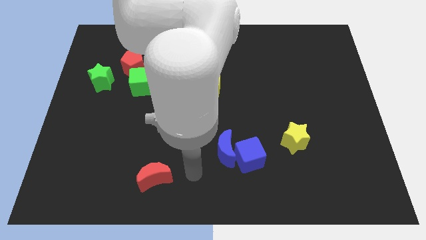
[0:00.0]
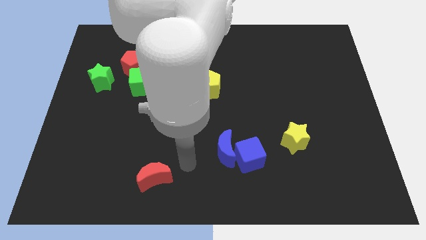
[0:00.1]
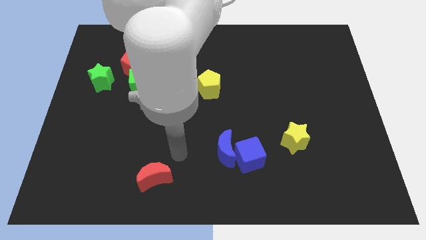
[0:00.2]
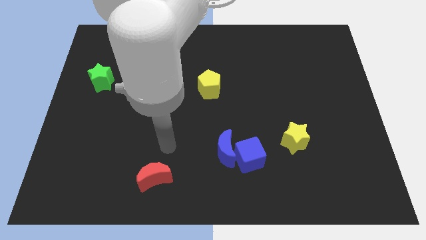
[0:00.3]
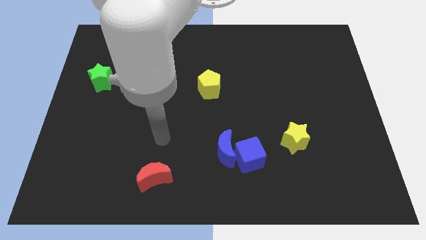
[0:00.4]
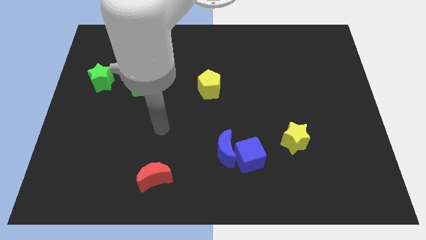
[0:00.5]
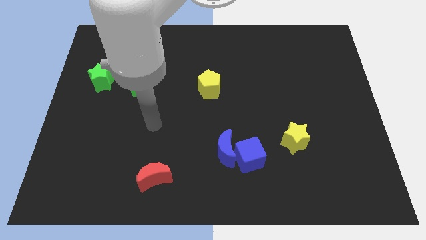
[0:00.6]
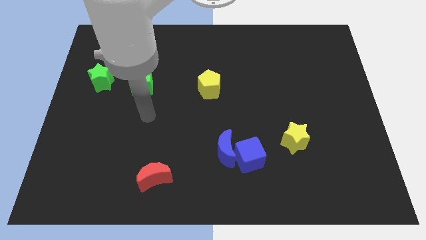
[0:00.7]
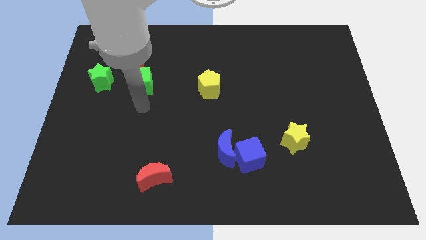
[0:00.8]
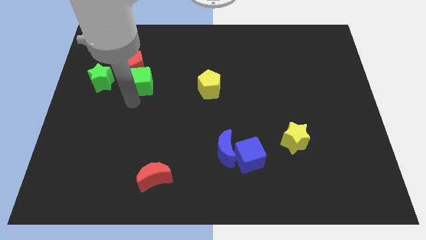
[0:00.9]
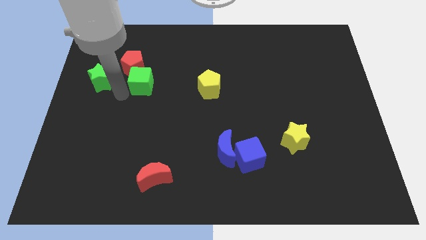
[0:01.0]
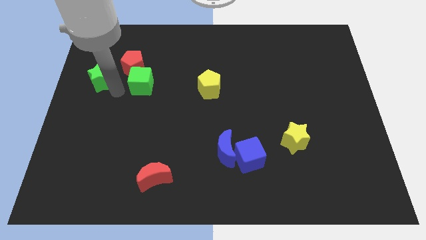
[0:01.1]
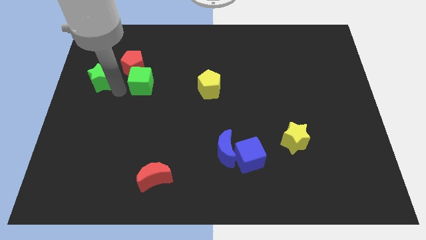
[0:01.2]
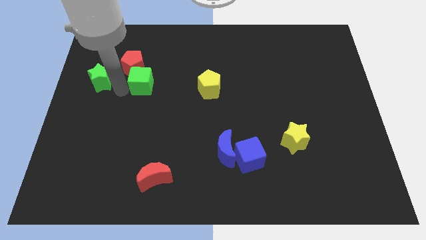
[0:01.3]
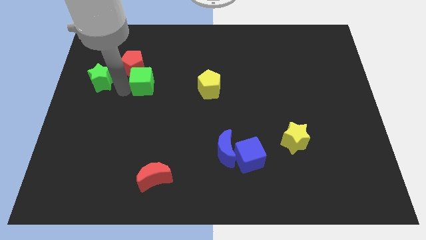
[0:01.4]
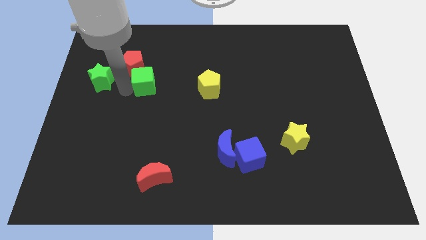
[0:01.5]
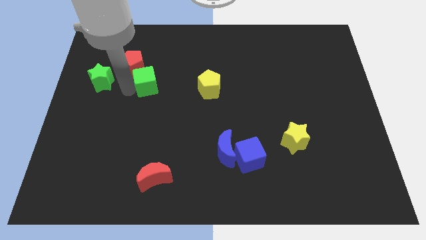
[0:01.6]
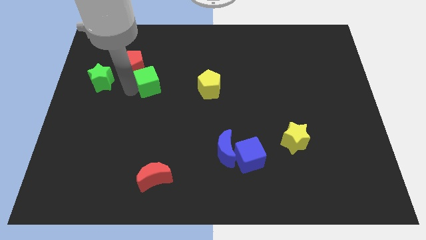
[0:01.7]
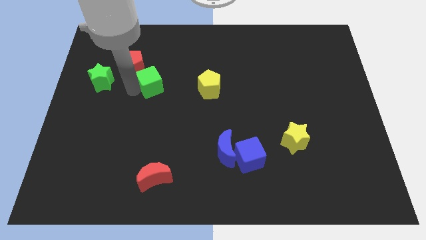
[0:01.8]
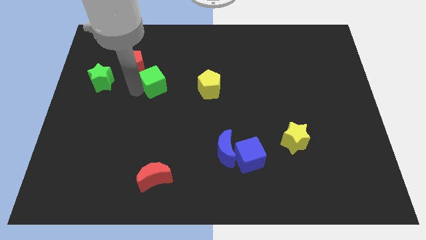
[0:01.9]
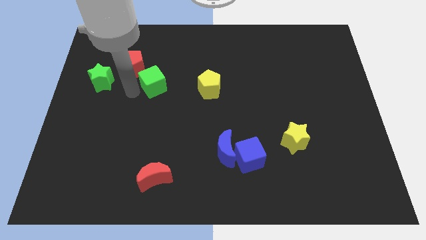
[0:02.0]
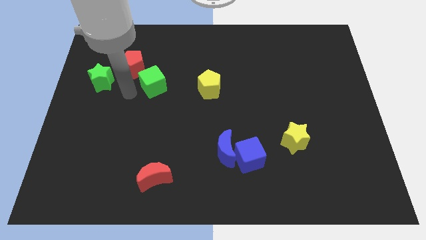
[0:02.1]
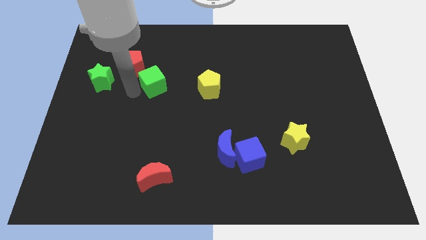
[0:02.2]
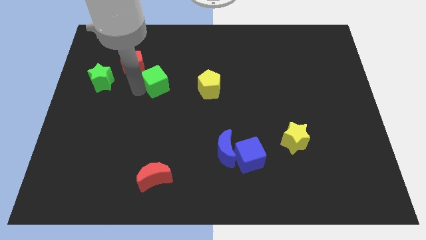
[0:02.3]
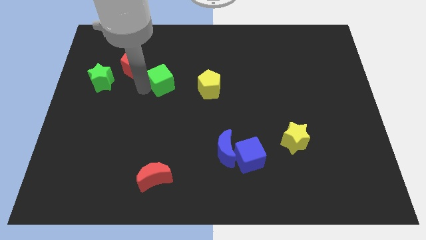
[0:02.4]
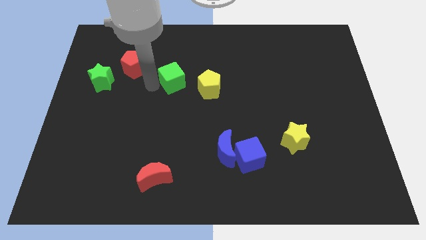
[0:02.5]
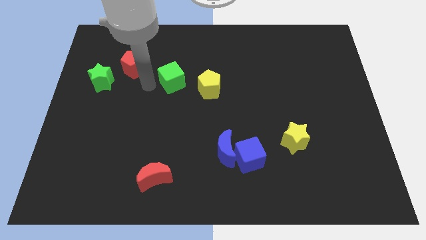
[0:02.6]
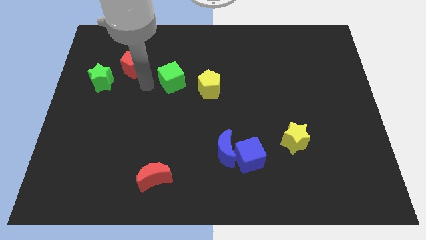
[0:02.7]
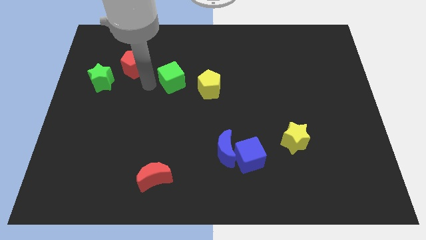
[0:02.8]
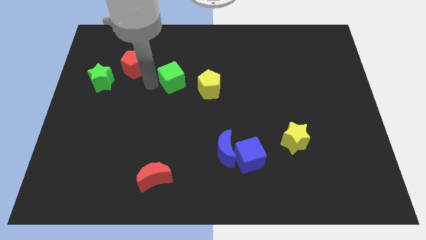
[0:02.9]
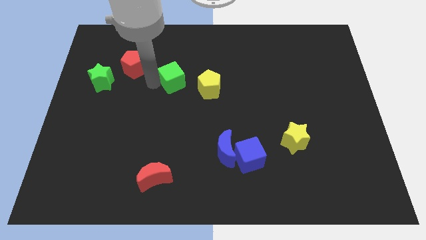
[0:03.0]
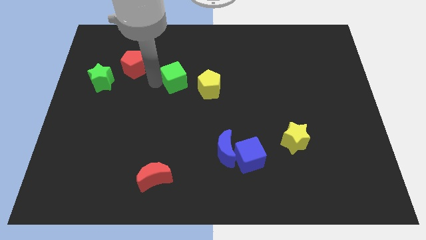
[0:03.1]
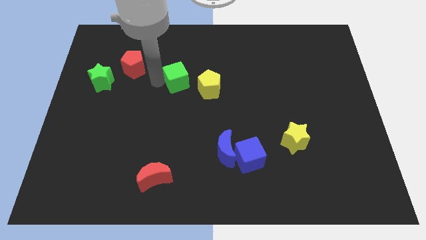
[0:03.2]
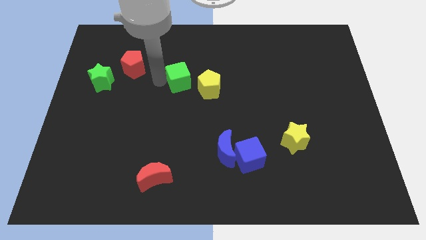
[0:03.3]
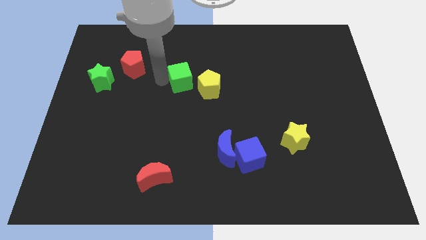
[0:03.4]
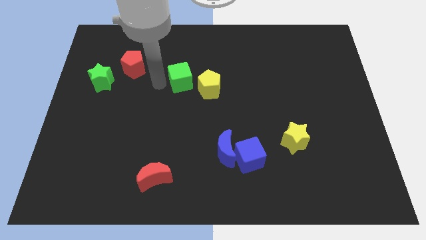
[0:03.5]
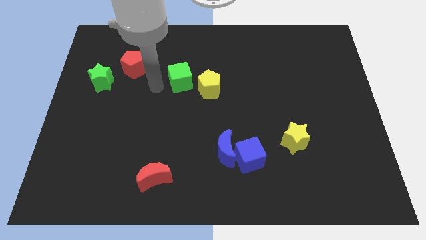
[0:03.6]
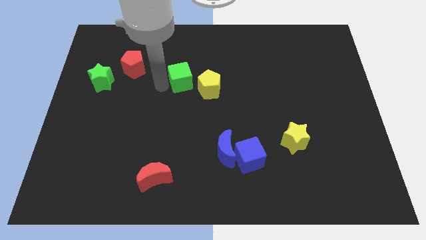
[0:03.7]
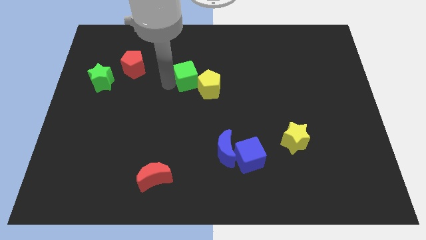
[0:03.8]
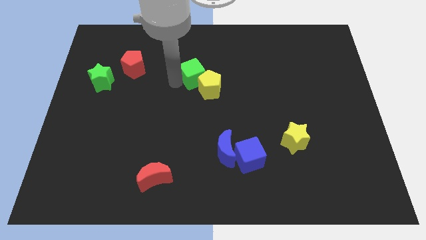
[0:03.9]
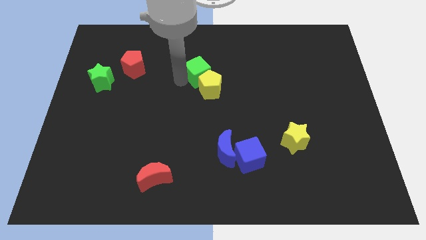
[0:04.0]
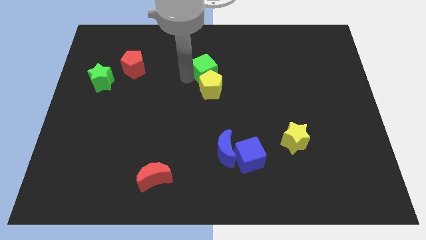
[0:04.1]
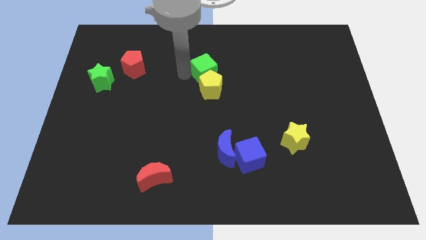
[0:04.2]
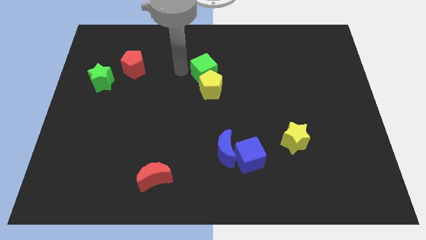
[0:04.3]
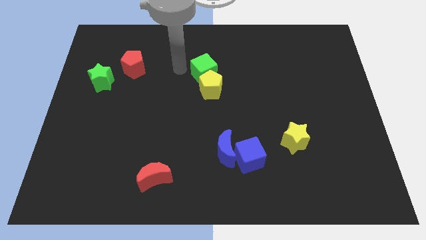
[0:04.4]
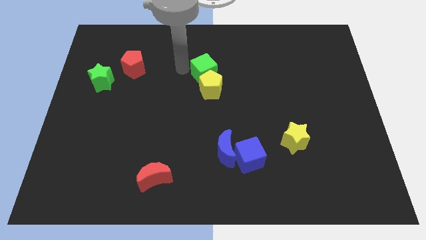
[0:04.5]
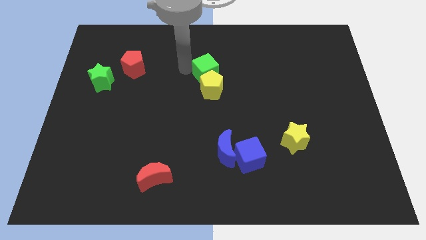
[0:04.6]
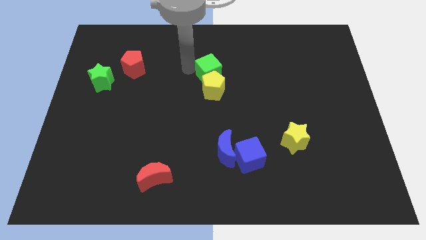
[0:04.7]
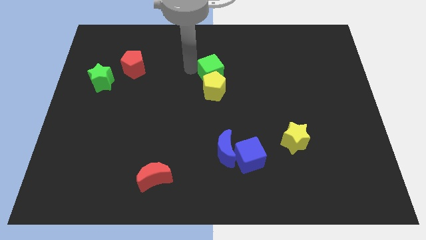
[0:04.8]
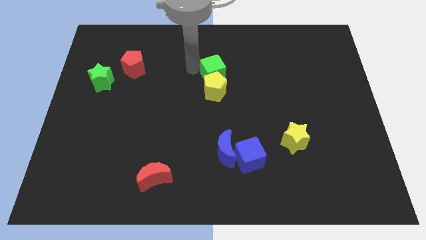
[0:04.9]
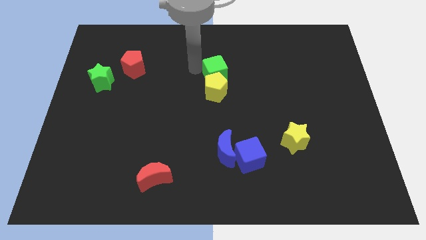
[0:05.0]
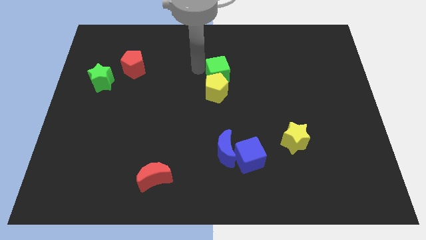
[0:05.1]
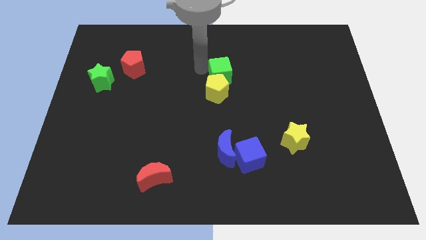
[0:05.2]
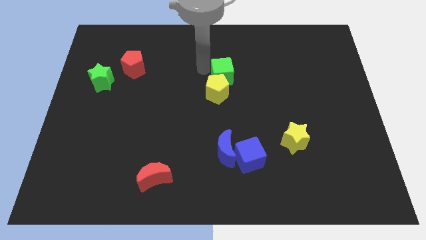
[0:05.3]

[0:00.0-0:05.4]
push the green cube to the right

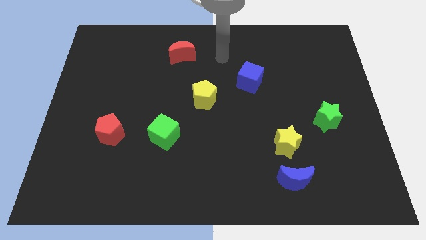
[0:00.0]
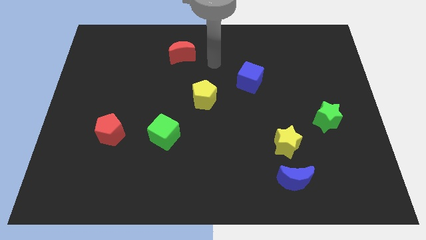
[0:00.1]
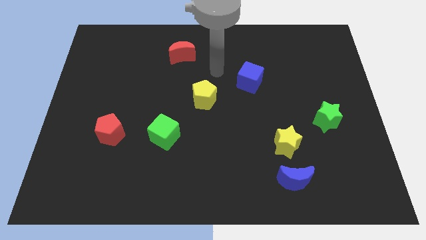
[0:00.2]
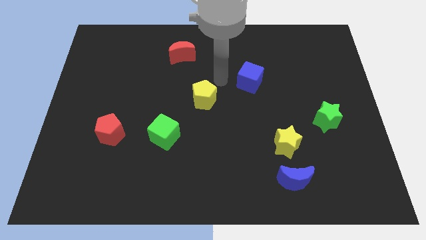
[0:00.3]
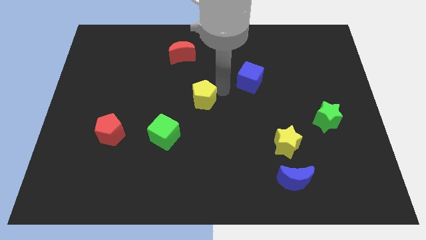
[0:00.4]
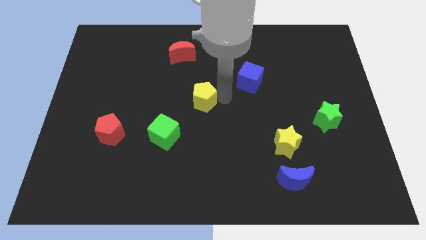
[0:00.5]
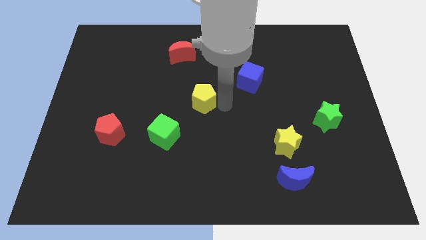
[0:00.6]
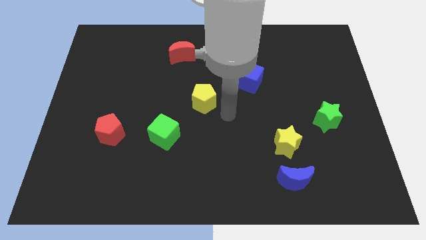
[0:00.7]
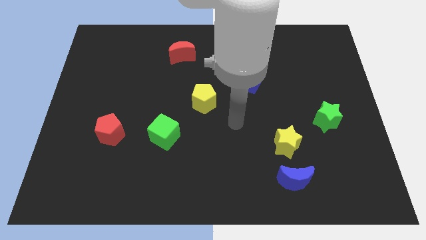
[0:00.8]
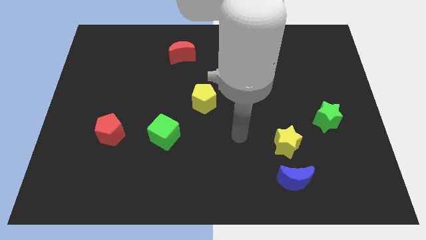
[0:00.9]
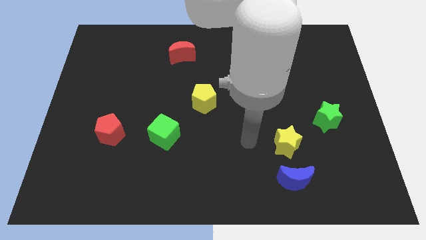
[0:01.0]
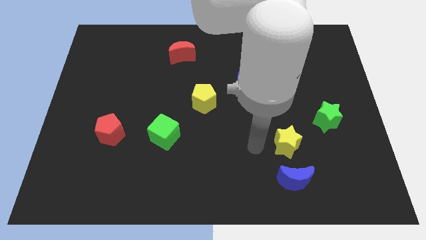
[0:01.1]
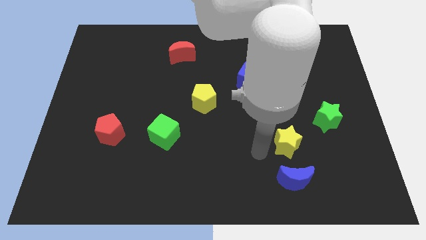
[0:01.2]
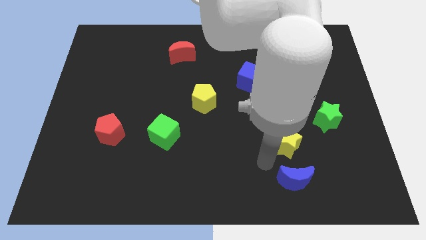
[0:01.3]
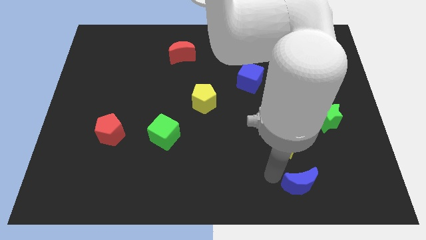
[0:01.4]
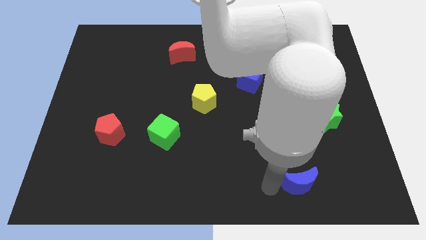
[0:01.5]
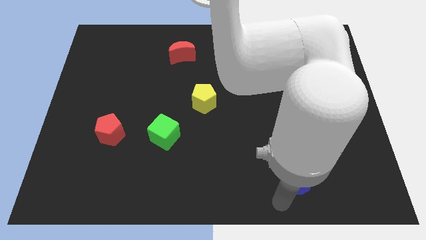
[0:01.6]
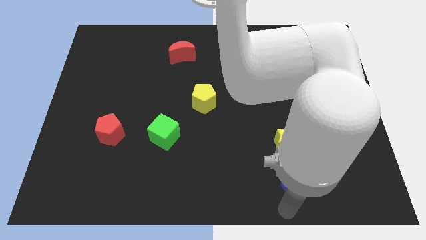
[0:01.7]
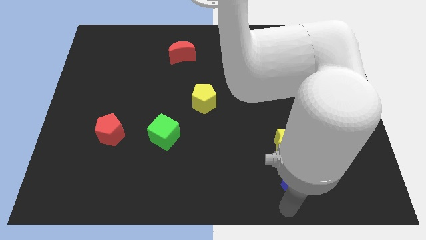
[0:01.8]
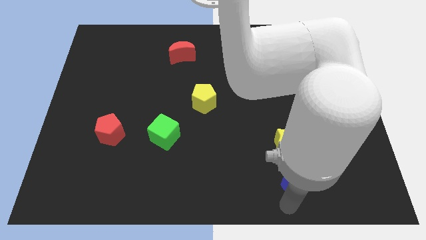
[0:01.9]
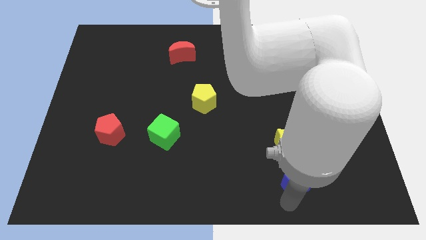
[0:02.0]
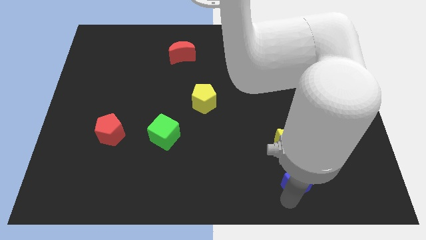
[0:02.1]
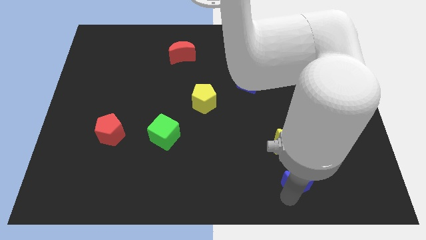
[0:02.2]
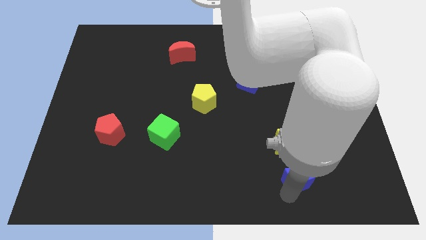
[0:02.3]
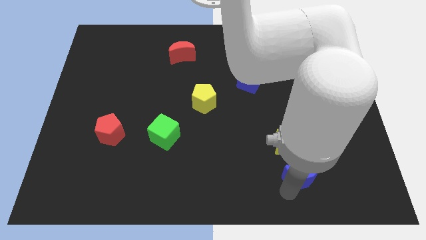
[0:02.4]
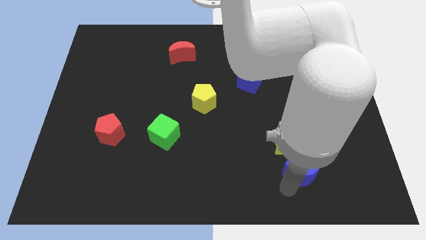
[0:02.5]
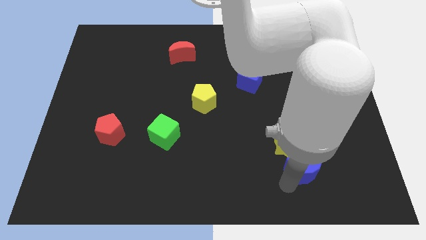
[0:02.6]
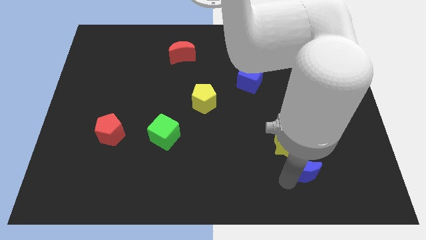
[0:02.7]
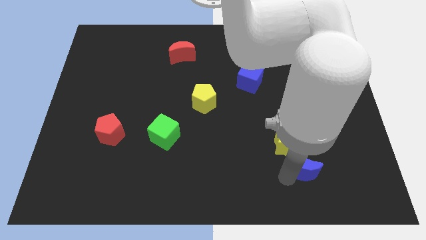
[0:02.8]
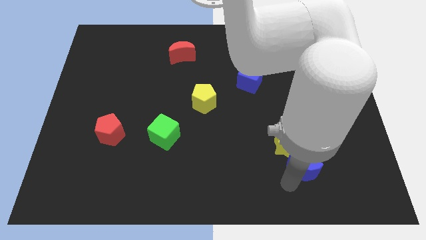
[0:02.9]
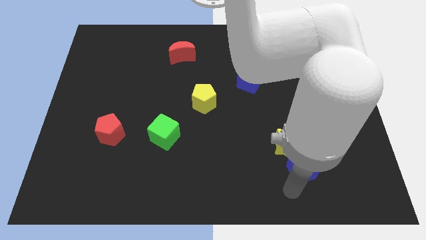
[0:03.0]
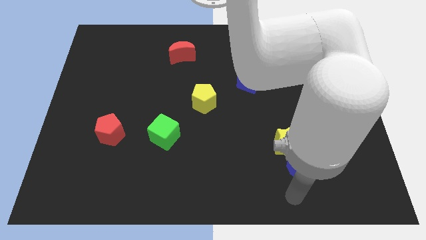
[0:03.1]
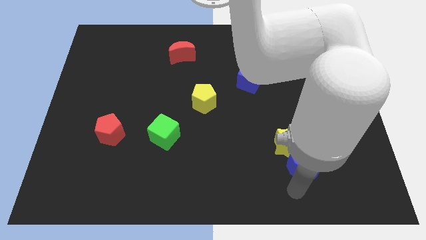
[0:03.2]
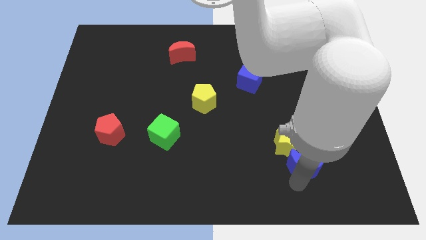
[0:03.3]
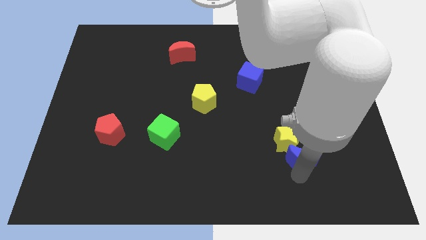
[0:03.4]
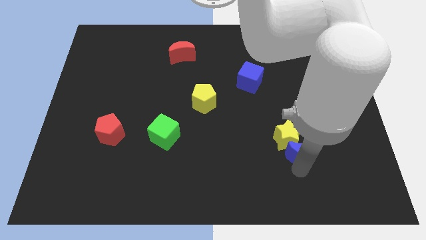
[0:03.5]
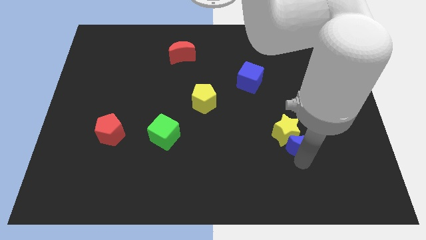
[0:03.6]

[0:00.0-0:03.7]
push the blue moon a little upwards
